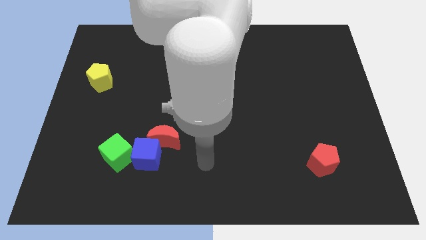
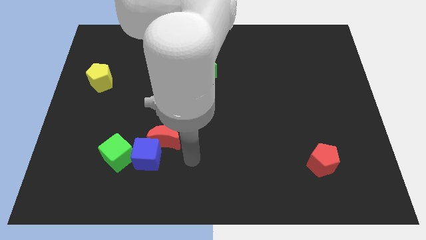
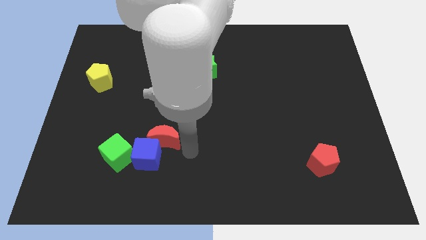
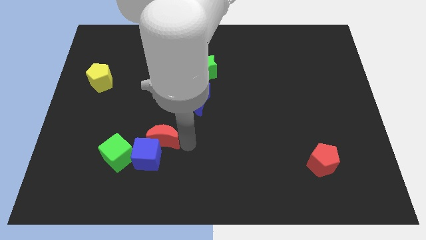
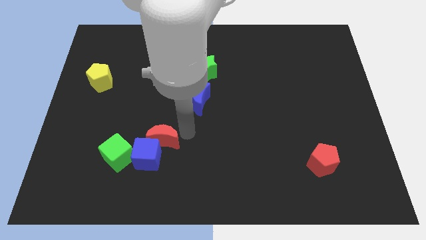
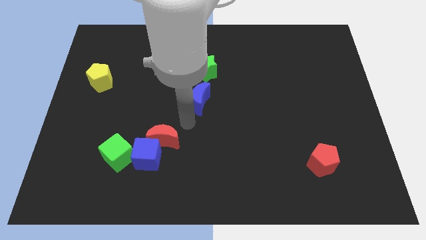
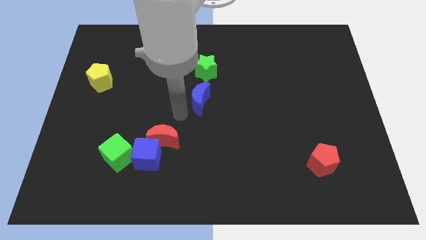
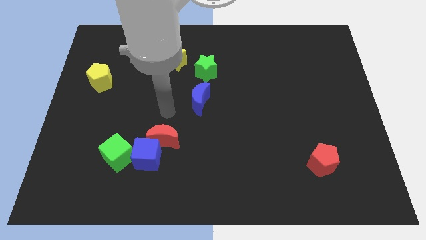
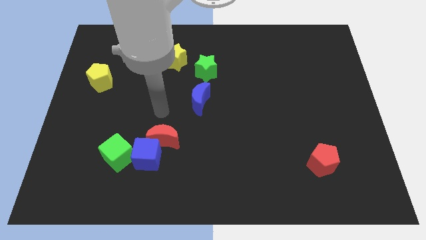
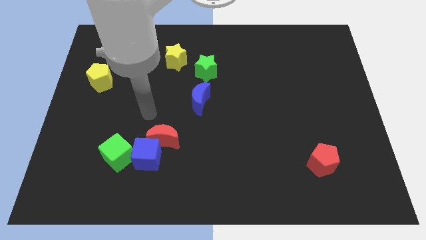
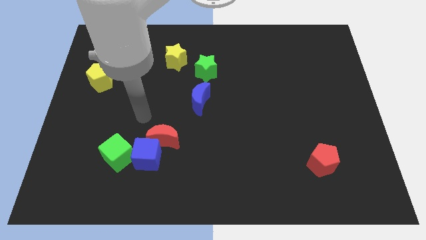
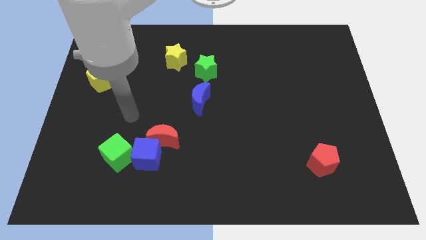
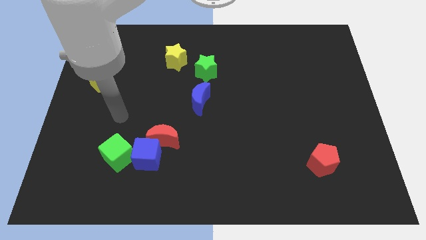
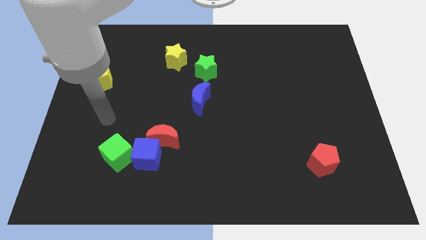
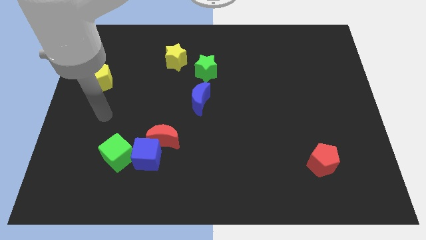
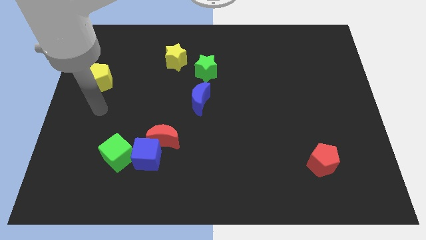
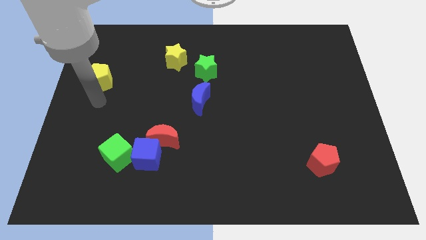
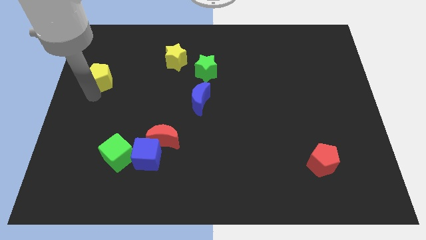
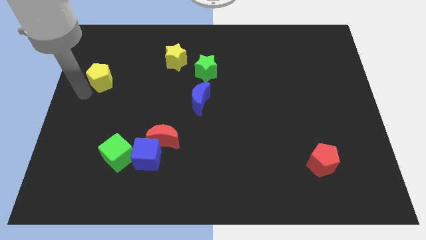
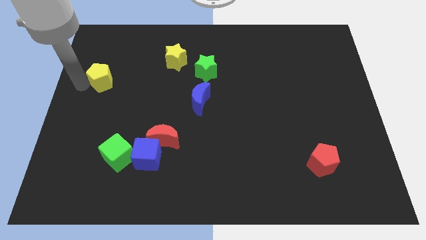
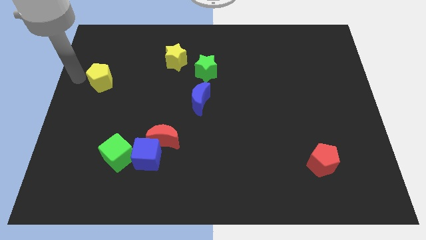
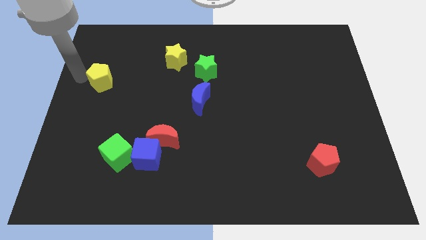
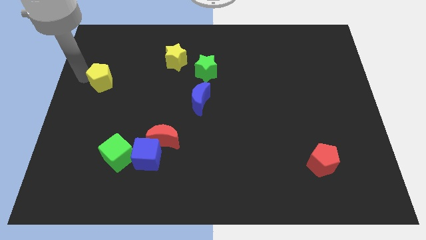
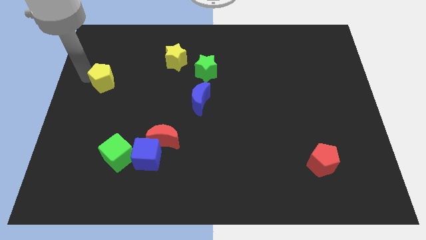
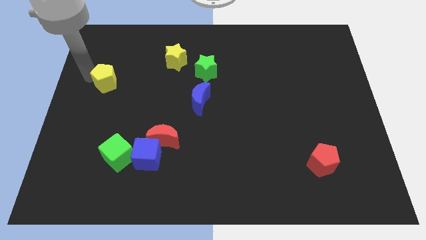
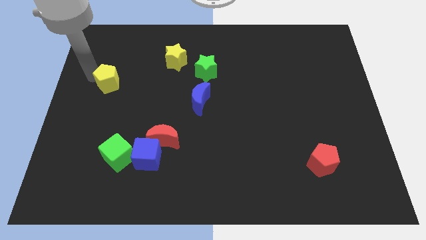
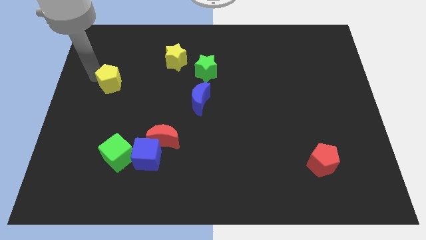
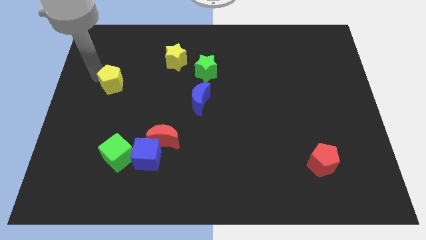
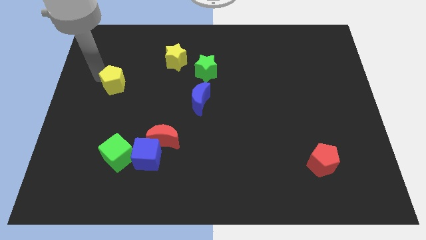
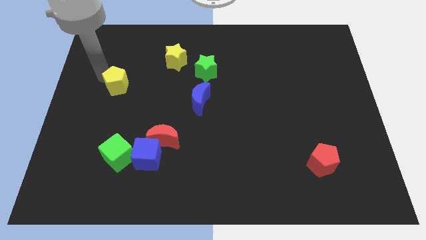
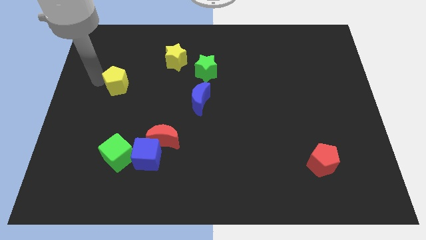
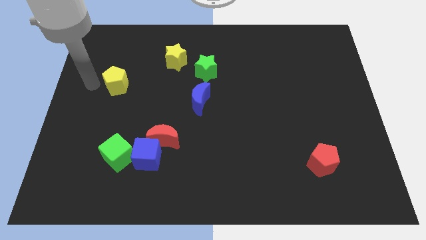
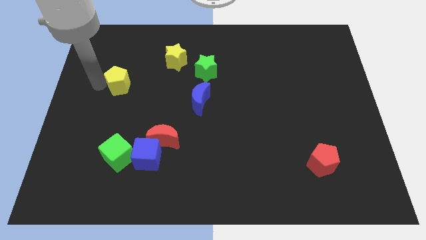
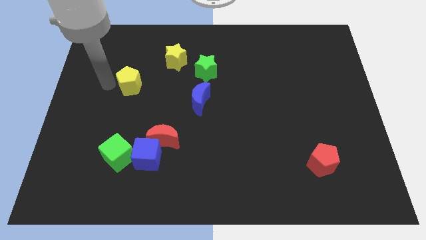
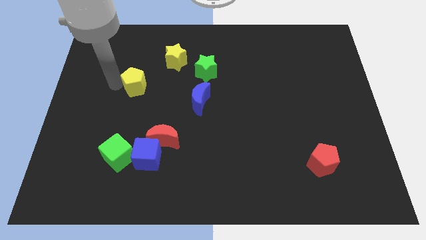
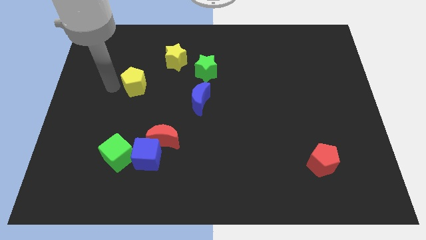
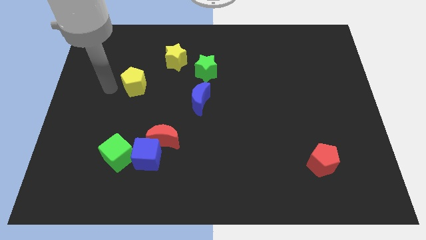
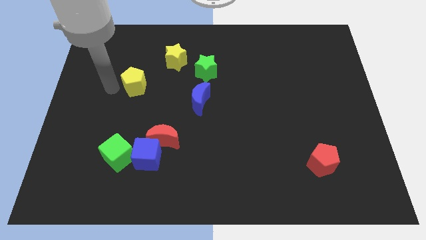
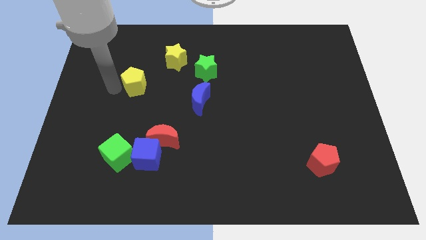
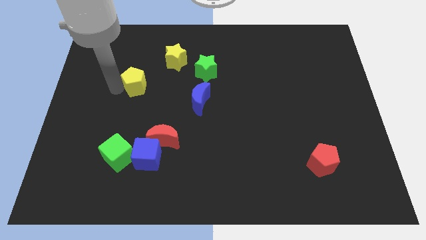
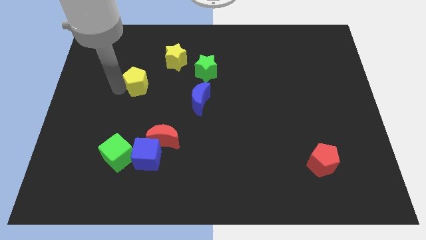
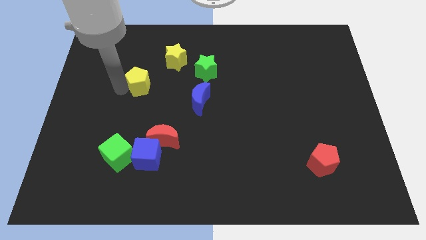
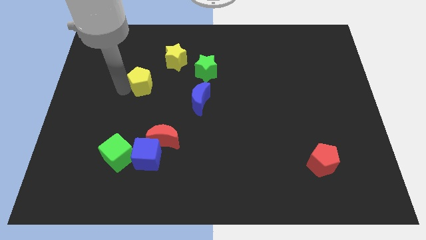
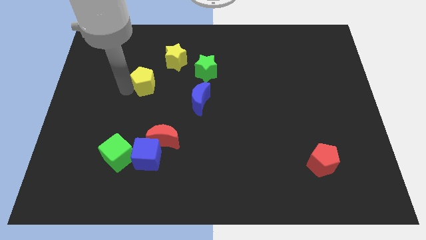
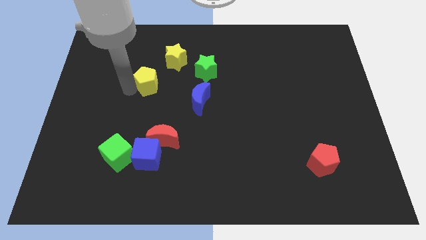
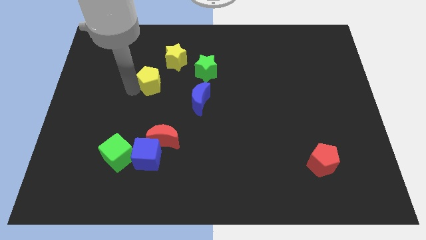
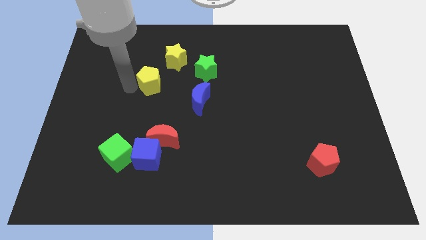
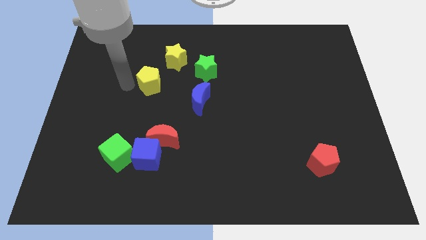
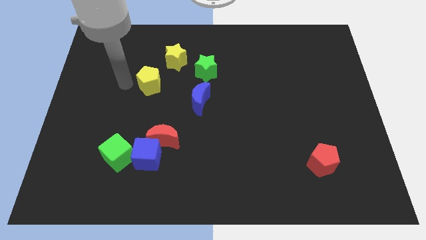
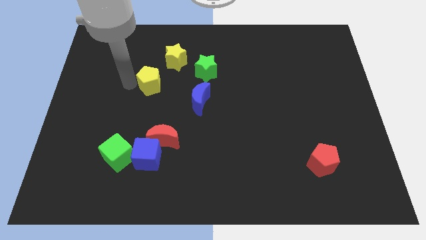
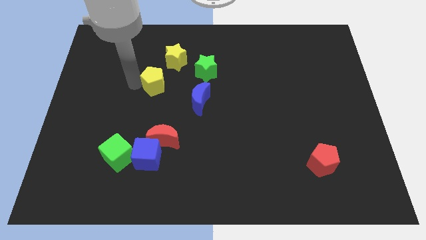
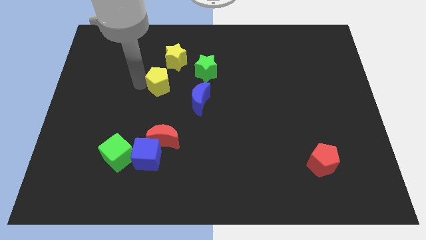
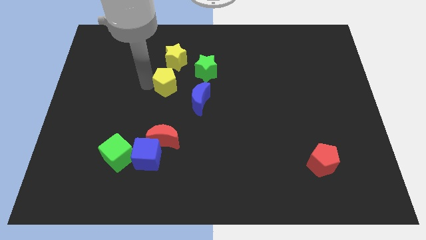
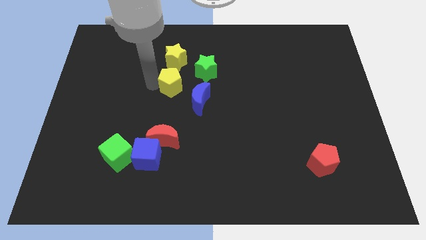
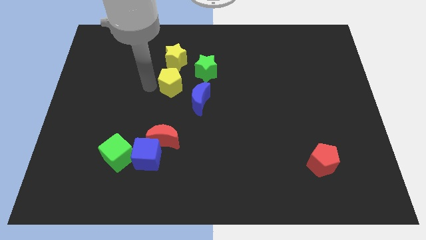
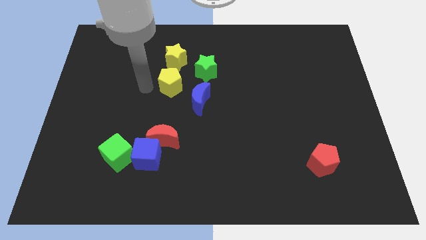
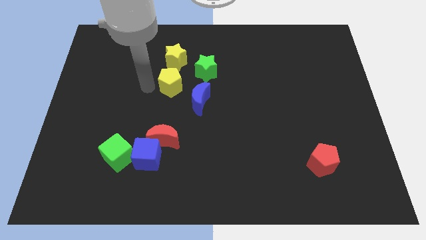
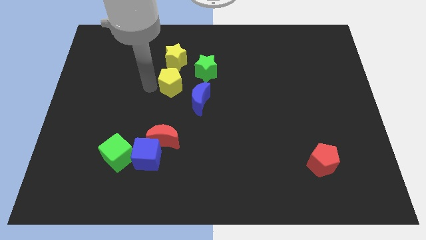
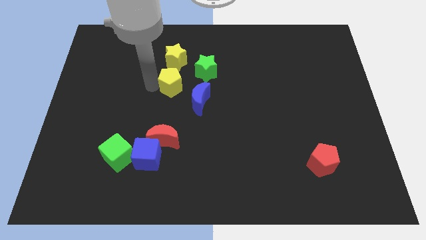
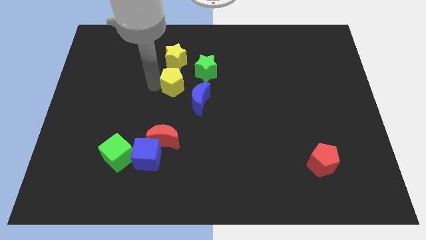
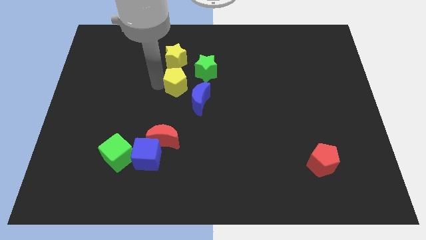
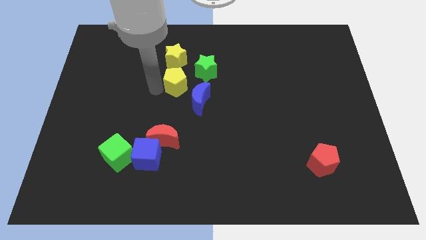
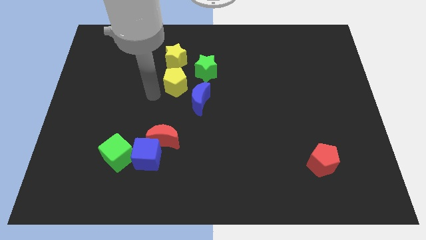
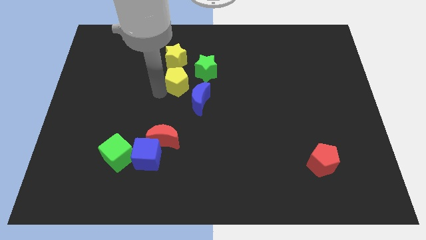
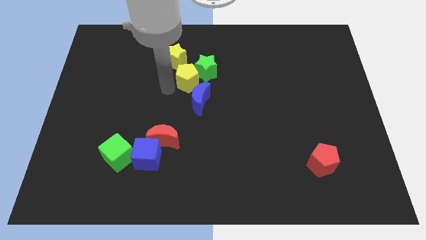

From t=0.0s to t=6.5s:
push the yellow pentagon next to the green star

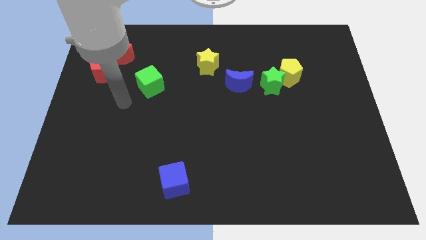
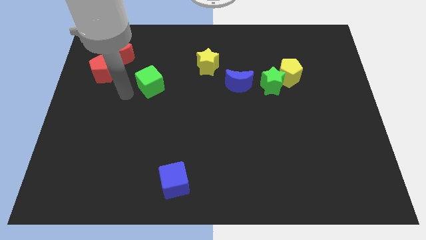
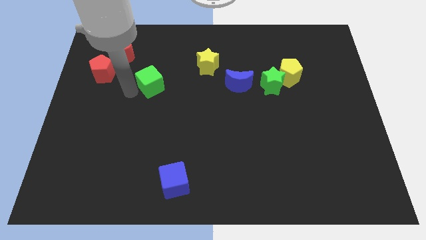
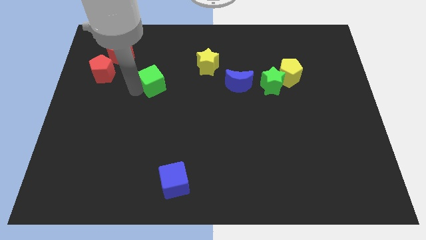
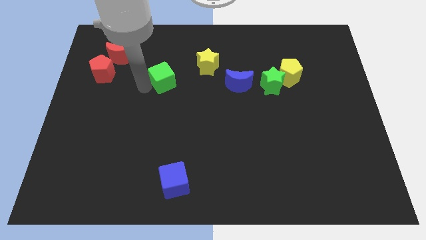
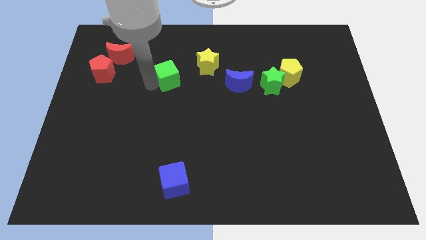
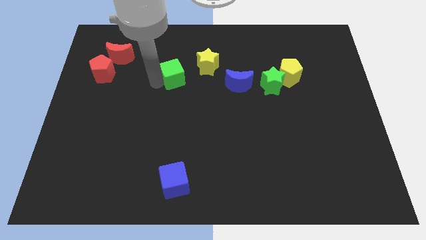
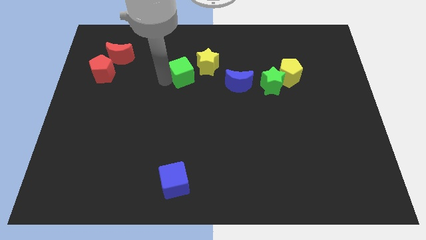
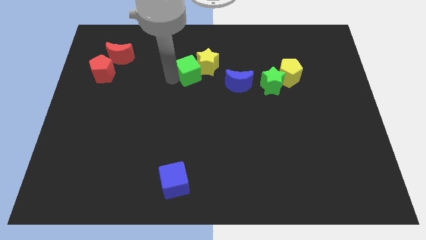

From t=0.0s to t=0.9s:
push the green cube towards the yellow star
